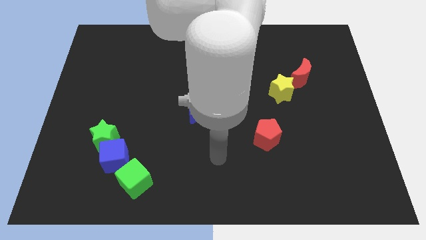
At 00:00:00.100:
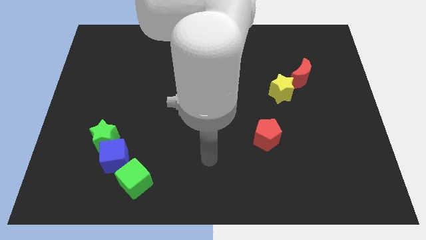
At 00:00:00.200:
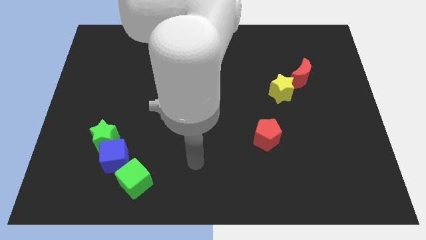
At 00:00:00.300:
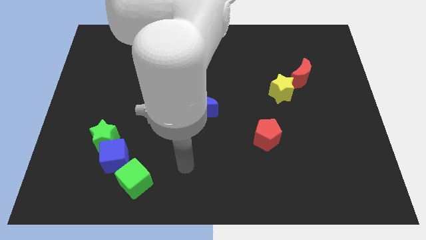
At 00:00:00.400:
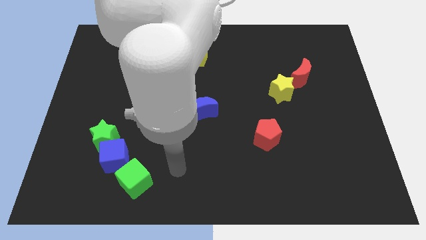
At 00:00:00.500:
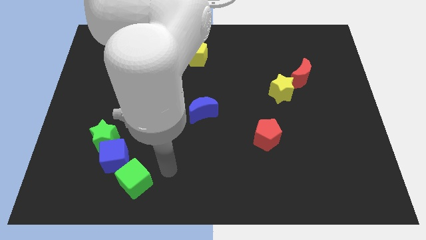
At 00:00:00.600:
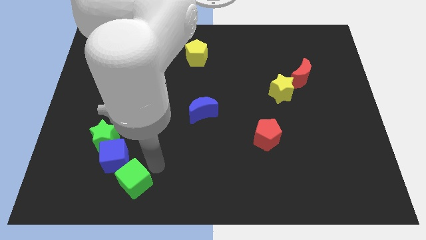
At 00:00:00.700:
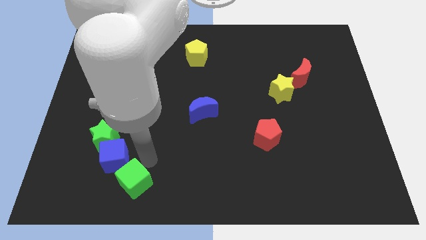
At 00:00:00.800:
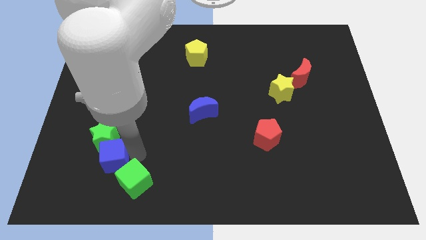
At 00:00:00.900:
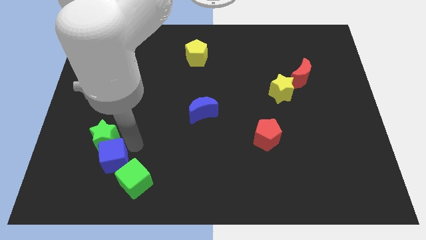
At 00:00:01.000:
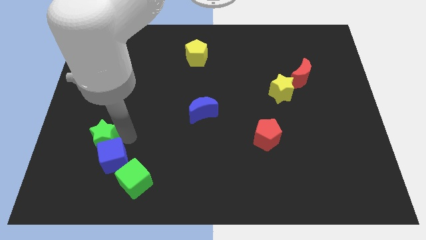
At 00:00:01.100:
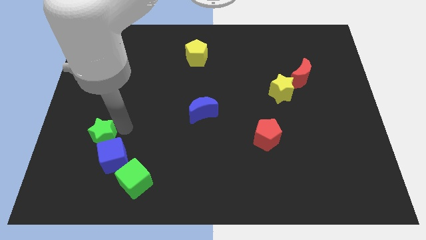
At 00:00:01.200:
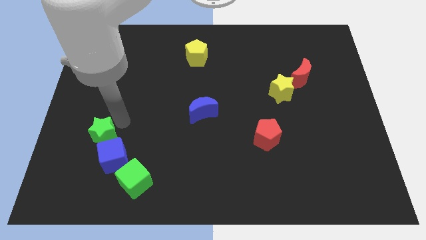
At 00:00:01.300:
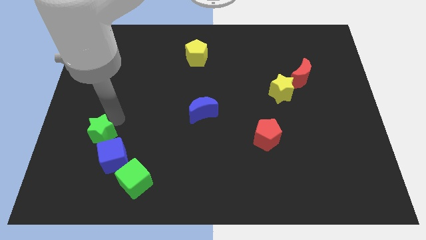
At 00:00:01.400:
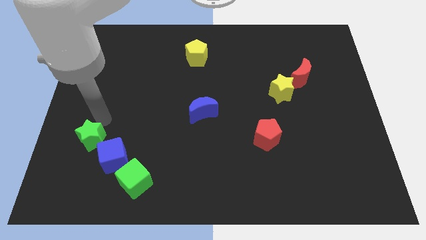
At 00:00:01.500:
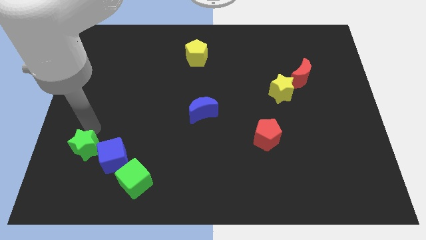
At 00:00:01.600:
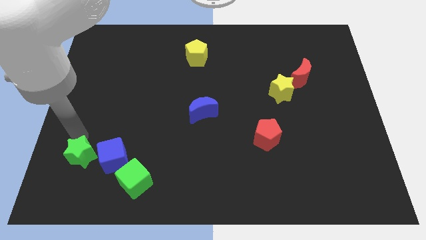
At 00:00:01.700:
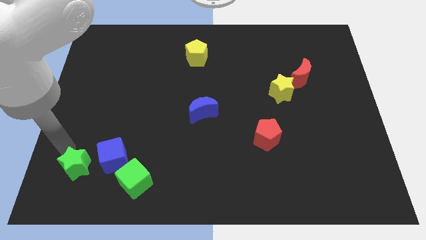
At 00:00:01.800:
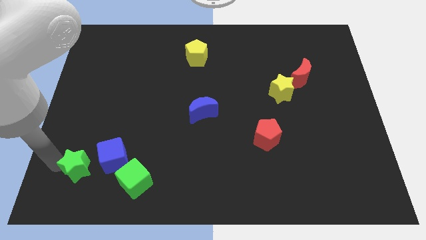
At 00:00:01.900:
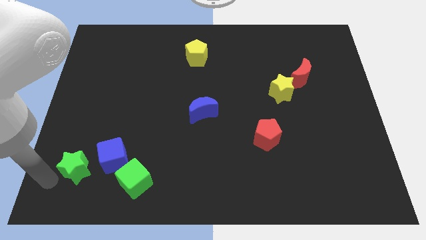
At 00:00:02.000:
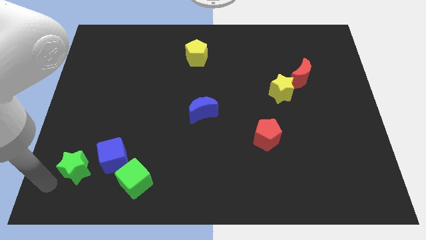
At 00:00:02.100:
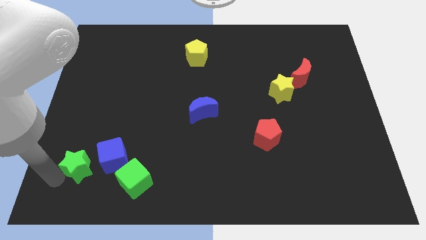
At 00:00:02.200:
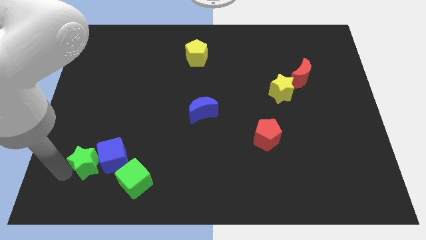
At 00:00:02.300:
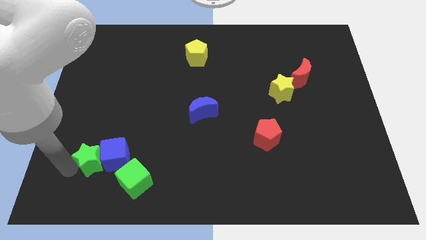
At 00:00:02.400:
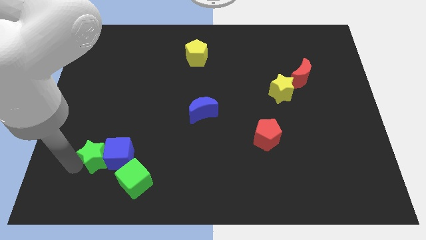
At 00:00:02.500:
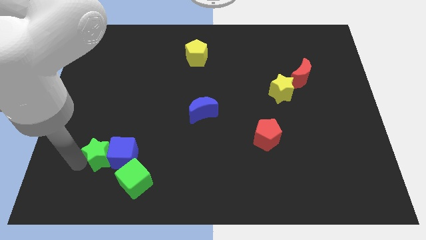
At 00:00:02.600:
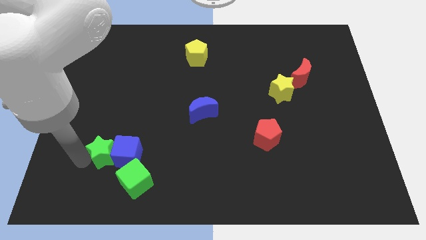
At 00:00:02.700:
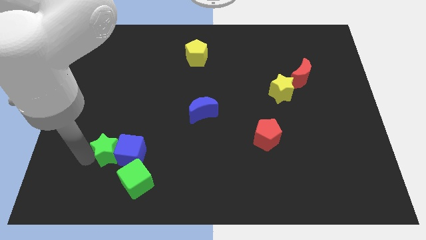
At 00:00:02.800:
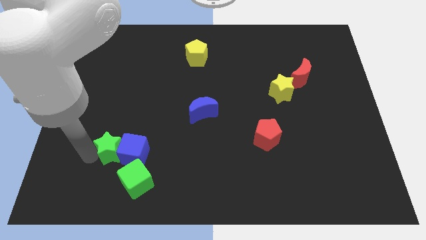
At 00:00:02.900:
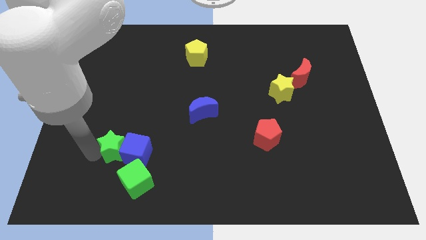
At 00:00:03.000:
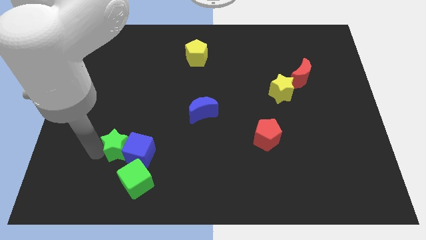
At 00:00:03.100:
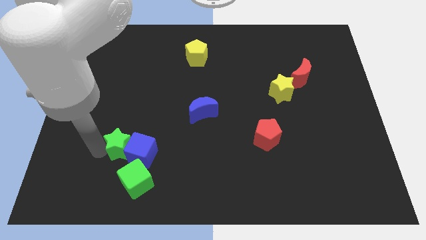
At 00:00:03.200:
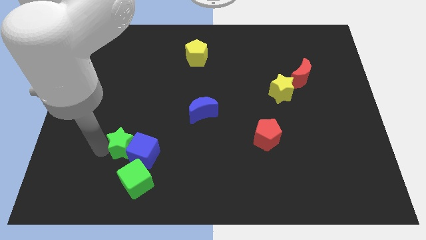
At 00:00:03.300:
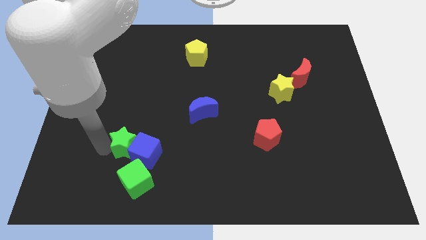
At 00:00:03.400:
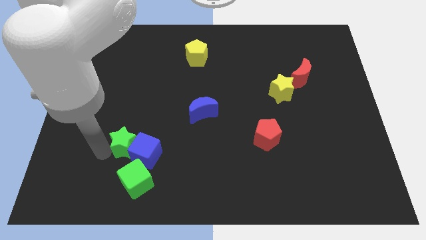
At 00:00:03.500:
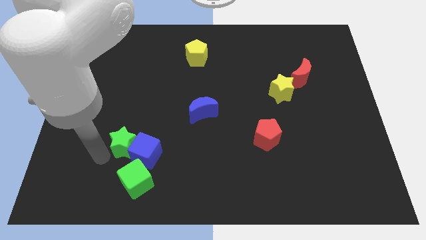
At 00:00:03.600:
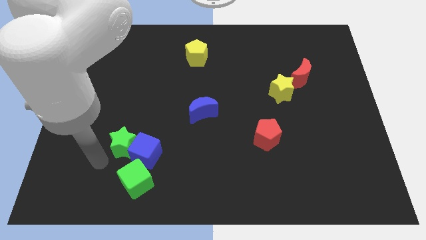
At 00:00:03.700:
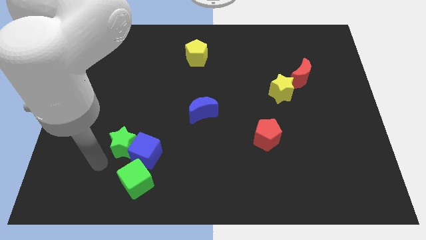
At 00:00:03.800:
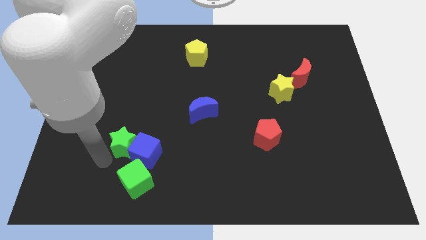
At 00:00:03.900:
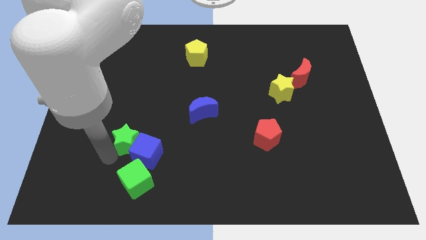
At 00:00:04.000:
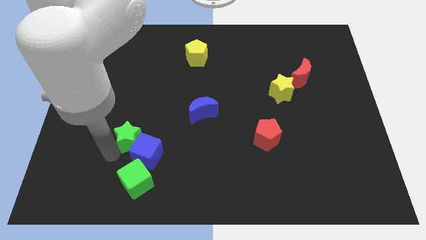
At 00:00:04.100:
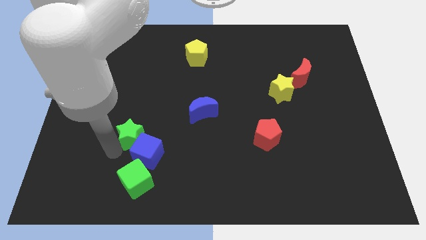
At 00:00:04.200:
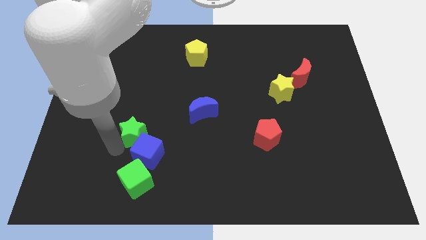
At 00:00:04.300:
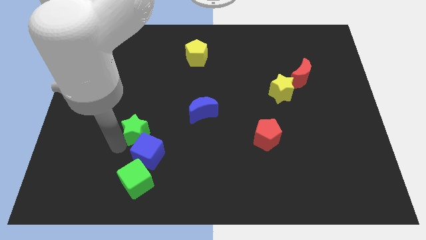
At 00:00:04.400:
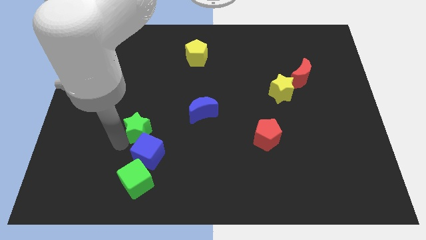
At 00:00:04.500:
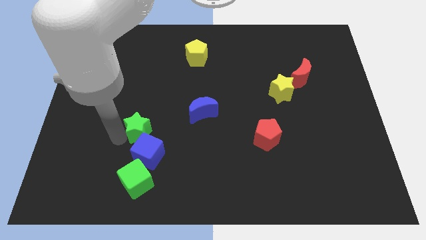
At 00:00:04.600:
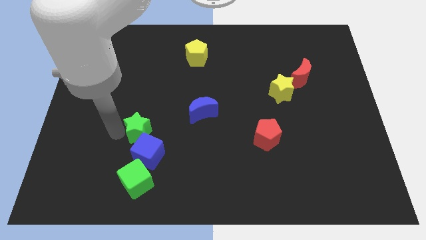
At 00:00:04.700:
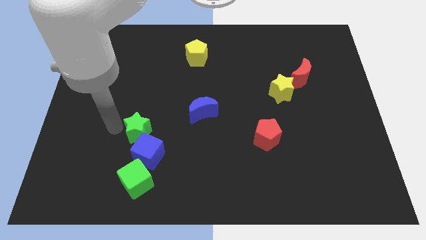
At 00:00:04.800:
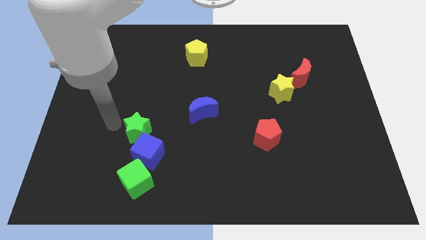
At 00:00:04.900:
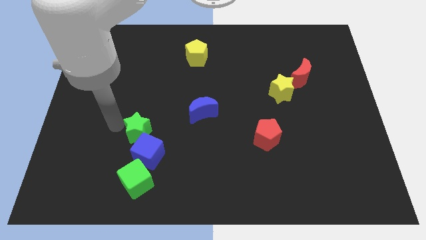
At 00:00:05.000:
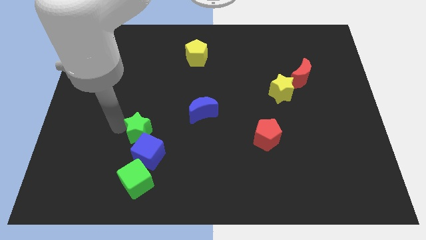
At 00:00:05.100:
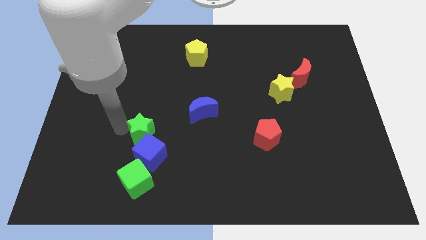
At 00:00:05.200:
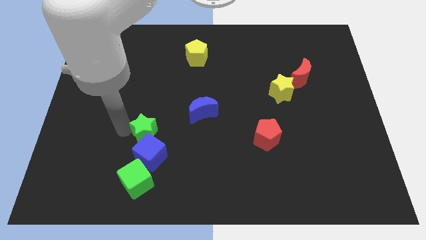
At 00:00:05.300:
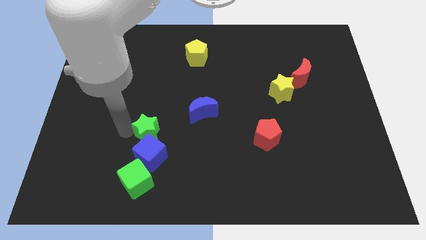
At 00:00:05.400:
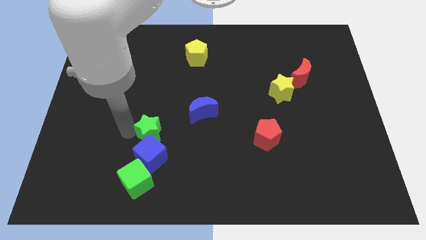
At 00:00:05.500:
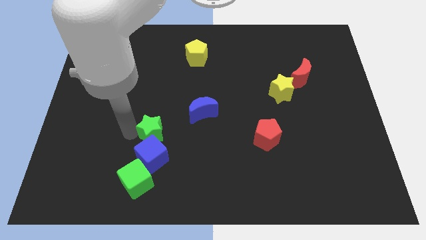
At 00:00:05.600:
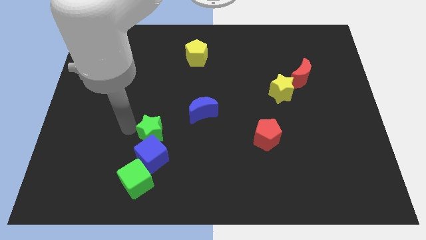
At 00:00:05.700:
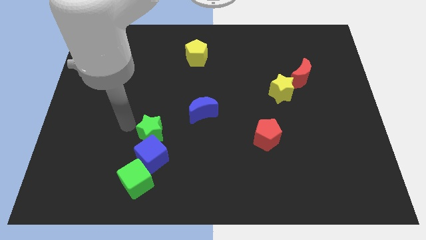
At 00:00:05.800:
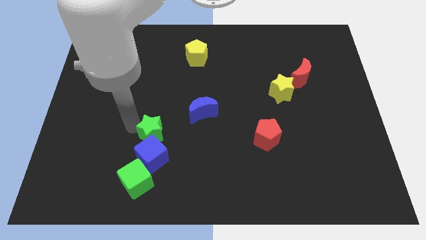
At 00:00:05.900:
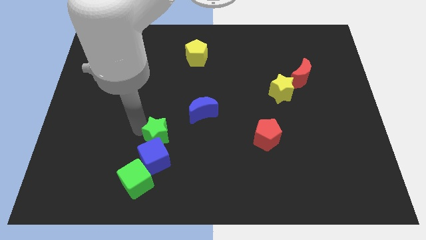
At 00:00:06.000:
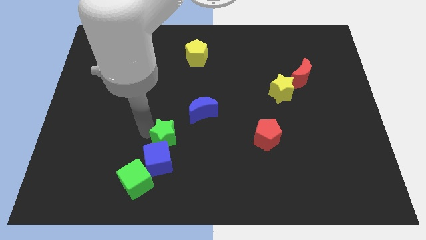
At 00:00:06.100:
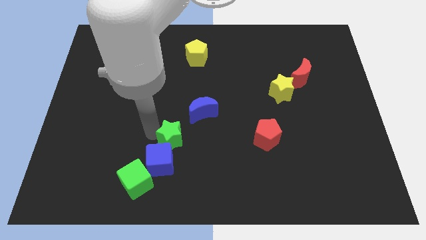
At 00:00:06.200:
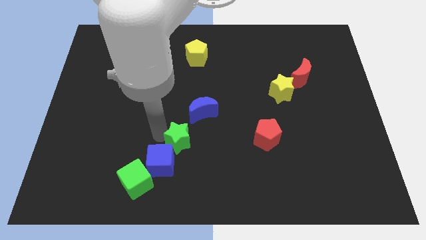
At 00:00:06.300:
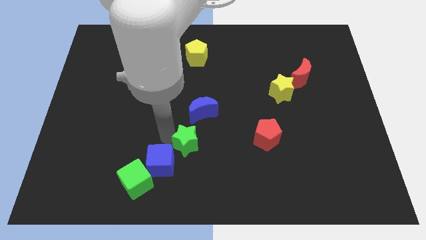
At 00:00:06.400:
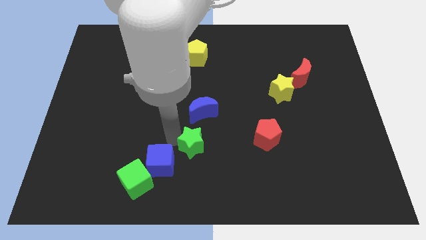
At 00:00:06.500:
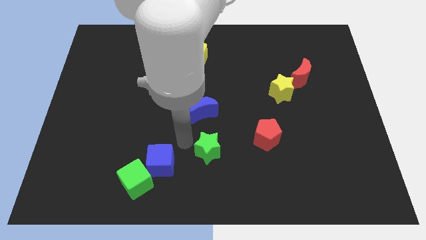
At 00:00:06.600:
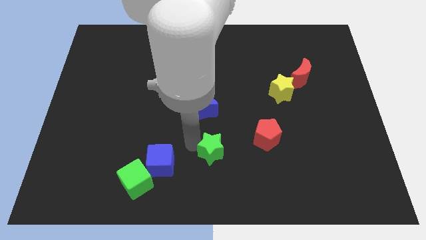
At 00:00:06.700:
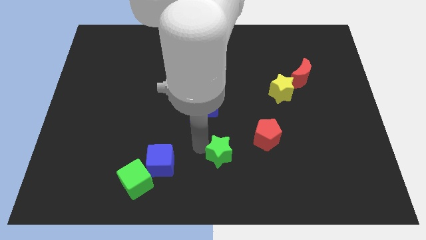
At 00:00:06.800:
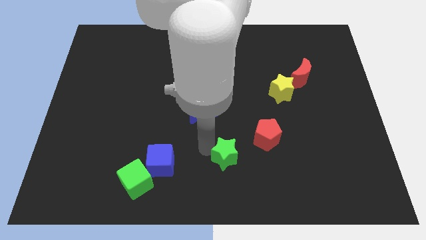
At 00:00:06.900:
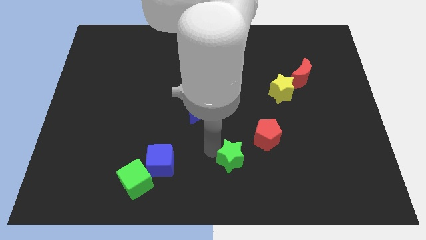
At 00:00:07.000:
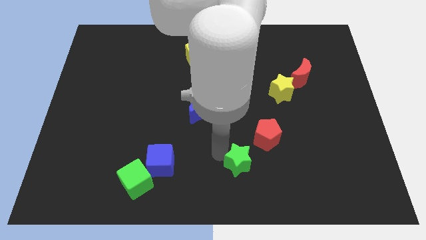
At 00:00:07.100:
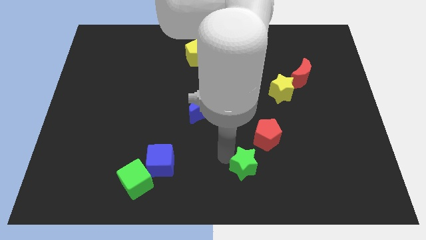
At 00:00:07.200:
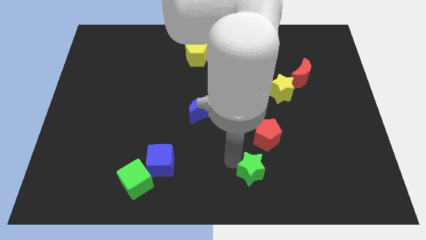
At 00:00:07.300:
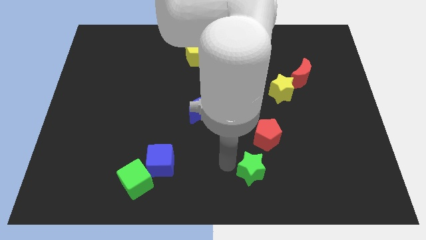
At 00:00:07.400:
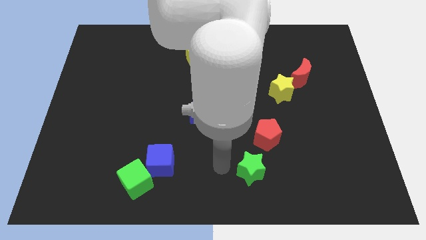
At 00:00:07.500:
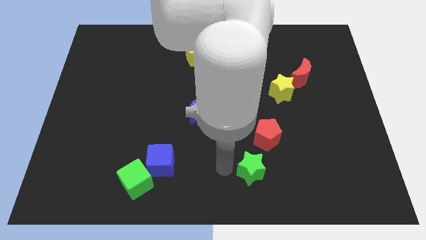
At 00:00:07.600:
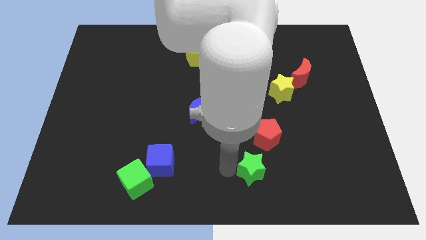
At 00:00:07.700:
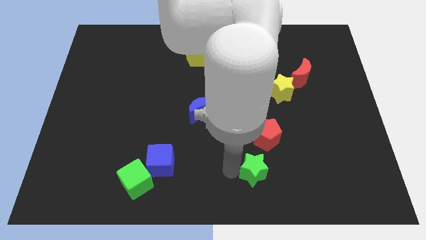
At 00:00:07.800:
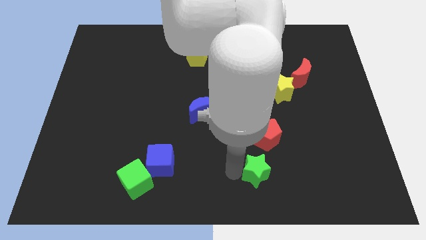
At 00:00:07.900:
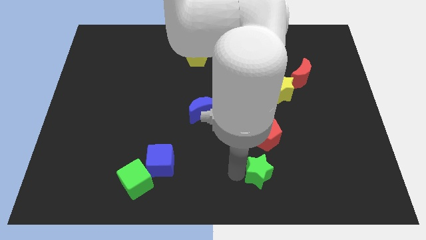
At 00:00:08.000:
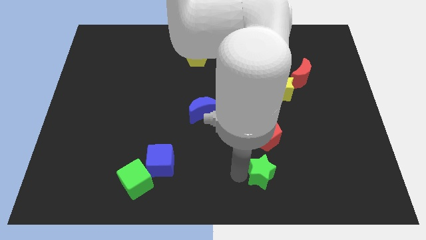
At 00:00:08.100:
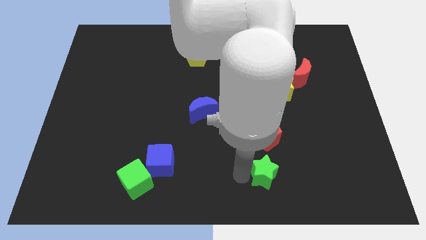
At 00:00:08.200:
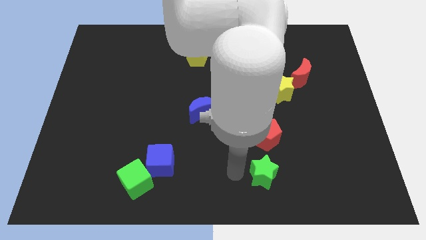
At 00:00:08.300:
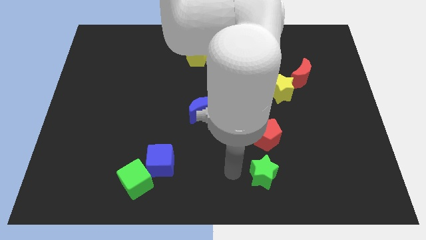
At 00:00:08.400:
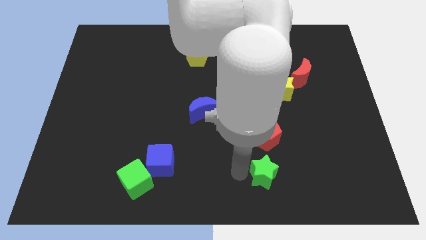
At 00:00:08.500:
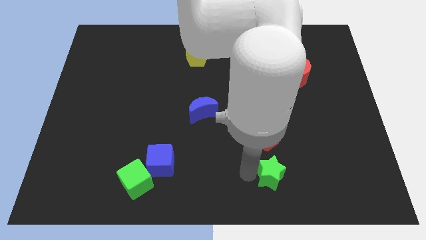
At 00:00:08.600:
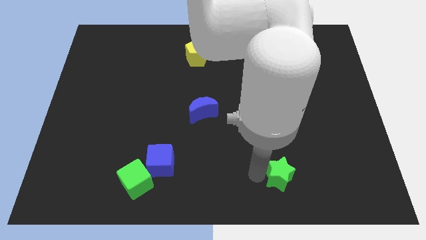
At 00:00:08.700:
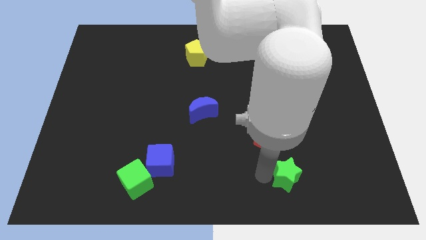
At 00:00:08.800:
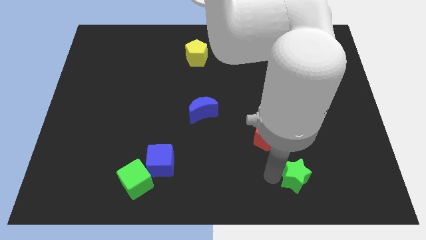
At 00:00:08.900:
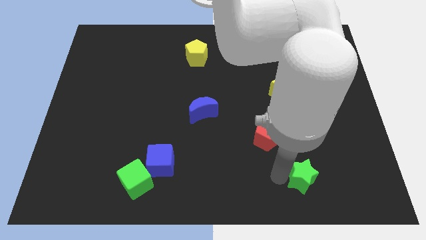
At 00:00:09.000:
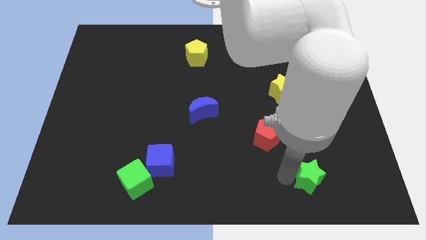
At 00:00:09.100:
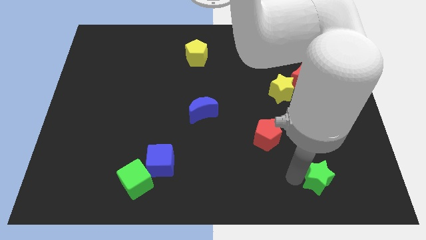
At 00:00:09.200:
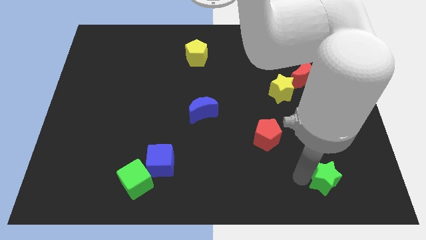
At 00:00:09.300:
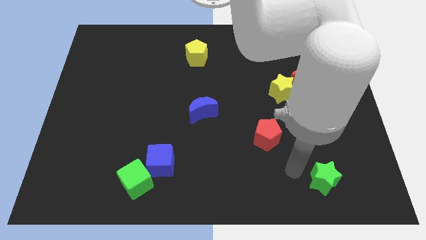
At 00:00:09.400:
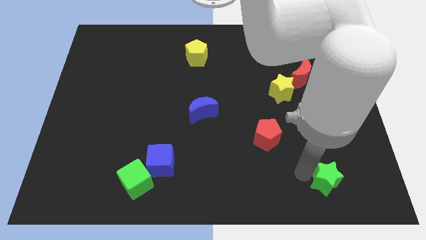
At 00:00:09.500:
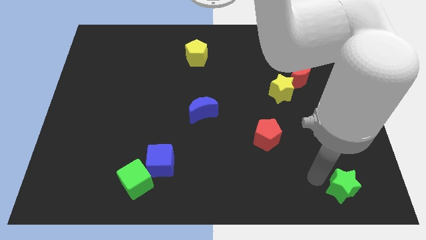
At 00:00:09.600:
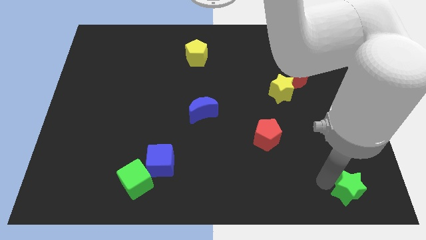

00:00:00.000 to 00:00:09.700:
move the green star to the bottom right of the board
